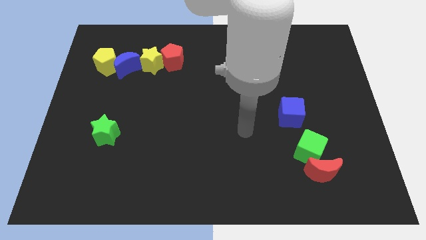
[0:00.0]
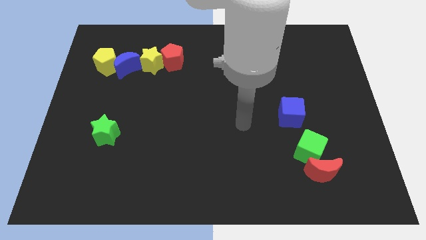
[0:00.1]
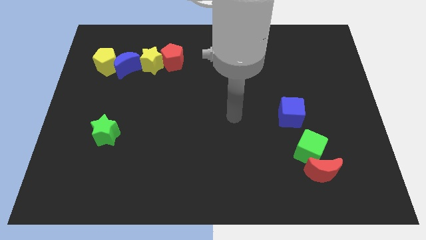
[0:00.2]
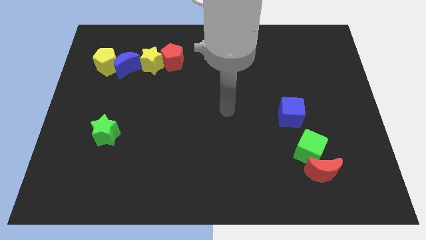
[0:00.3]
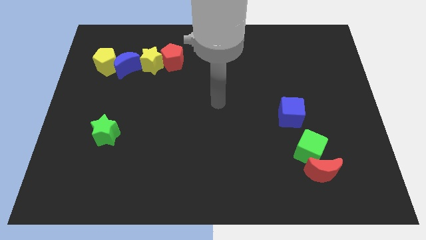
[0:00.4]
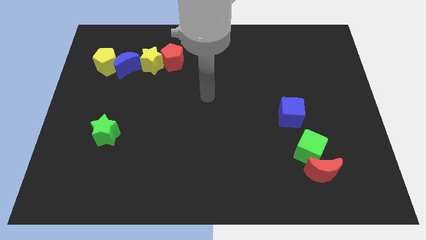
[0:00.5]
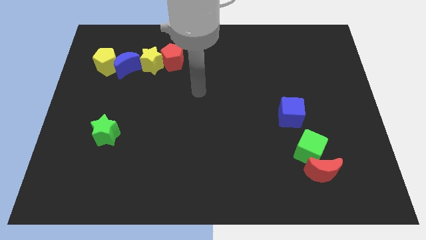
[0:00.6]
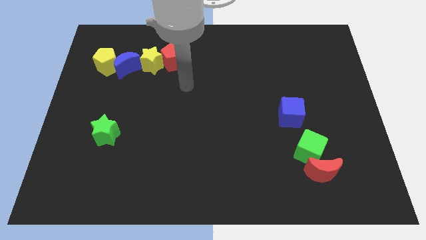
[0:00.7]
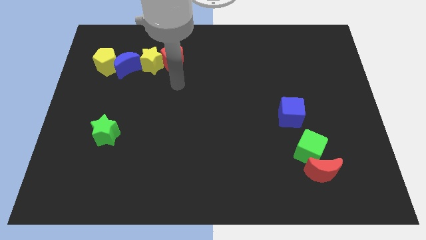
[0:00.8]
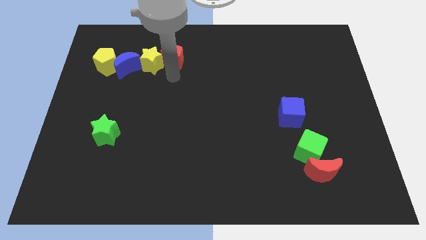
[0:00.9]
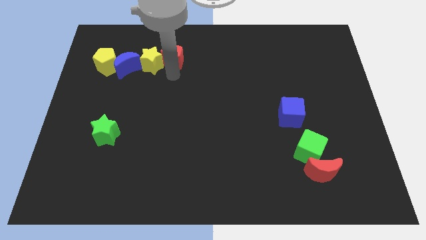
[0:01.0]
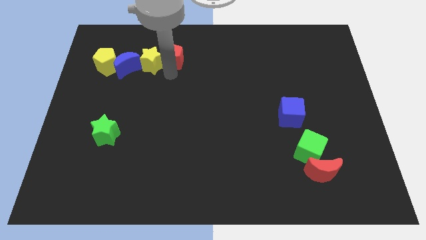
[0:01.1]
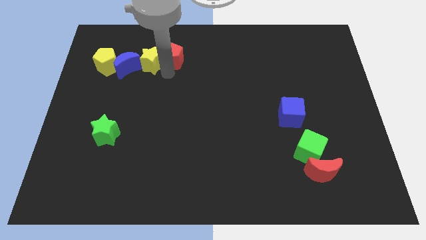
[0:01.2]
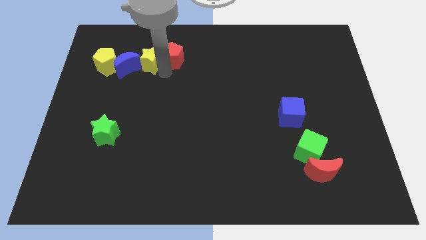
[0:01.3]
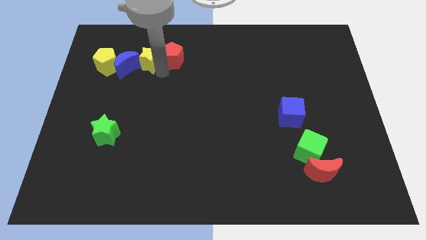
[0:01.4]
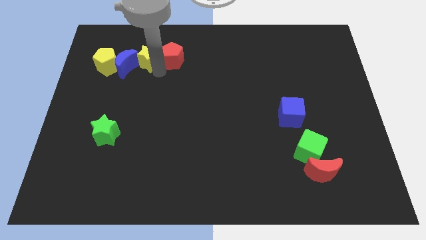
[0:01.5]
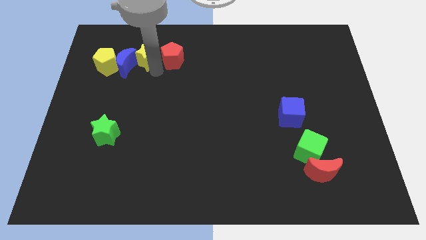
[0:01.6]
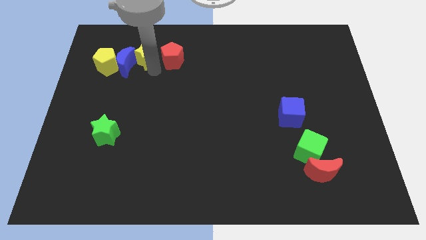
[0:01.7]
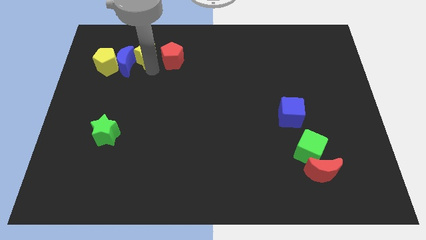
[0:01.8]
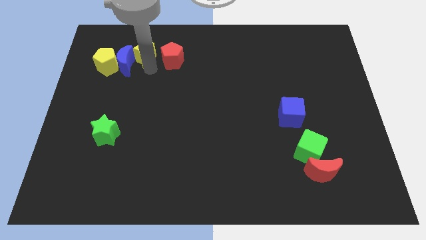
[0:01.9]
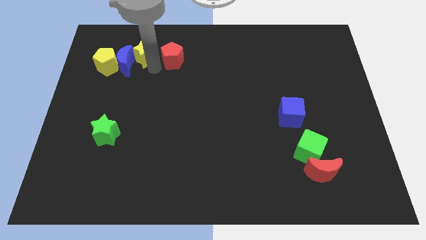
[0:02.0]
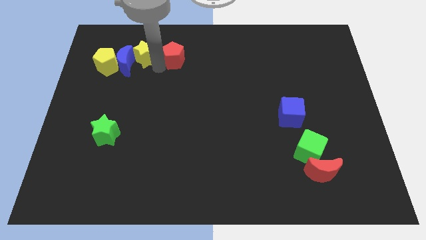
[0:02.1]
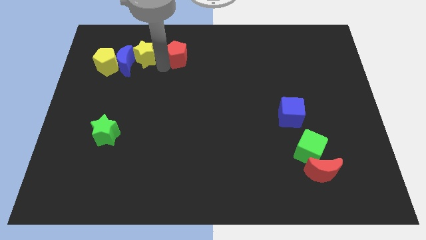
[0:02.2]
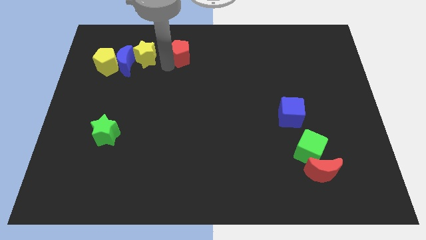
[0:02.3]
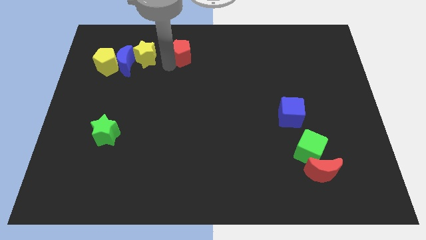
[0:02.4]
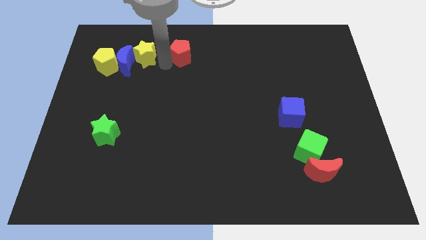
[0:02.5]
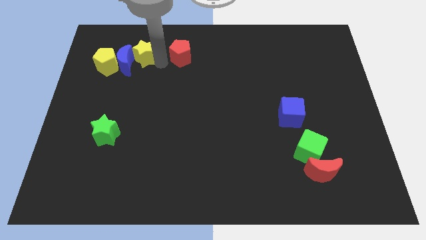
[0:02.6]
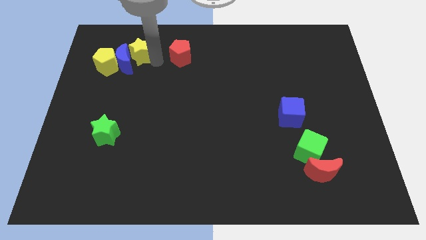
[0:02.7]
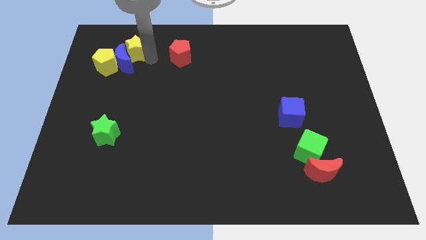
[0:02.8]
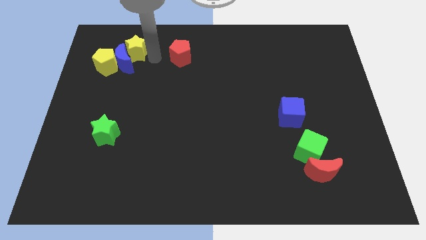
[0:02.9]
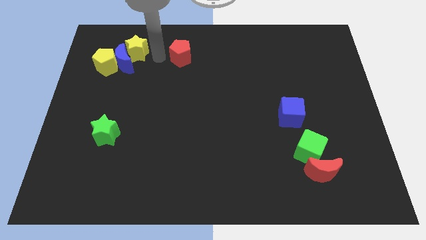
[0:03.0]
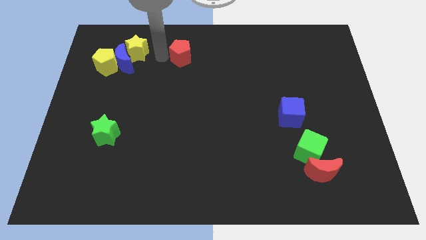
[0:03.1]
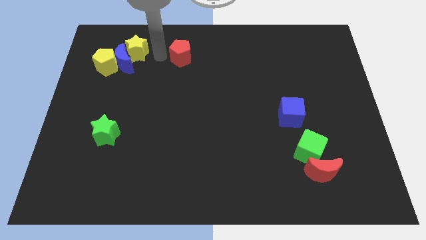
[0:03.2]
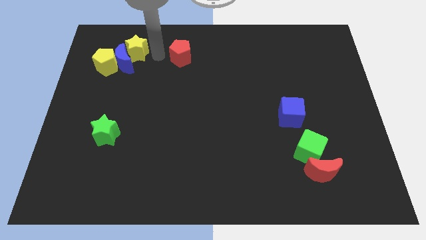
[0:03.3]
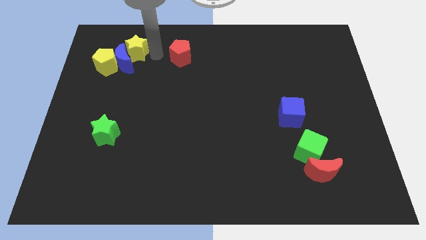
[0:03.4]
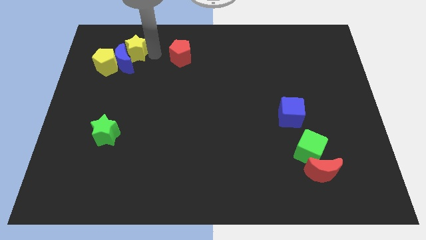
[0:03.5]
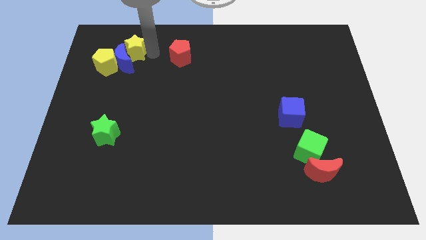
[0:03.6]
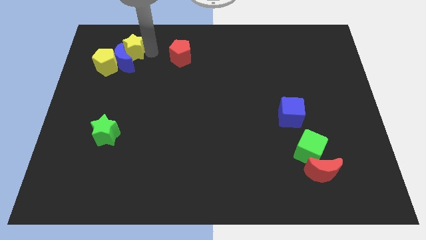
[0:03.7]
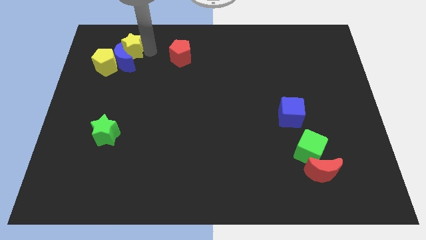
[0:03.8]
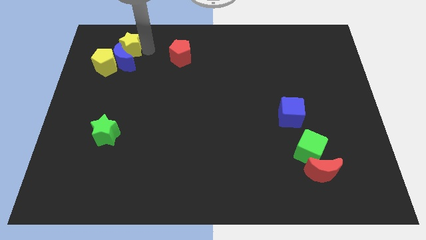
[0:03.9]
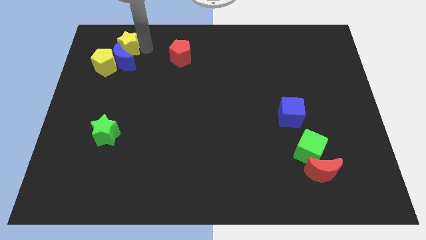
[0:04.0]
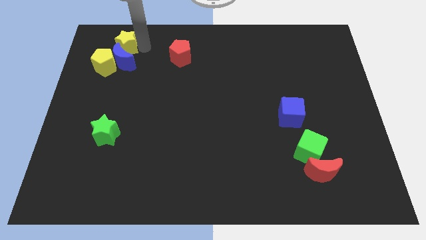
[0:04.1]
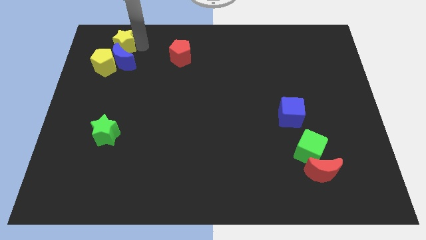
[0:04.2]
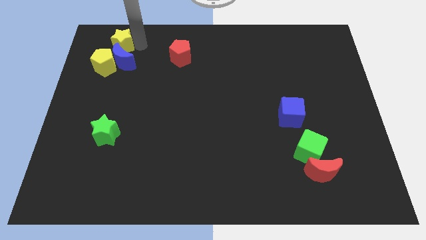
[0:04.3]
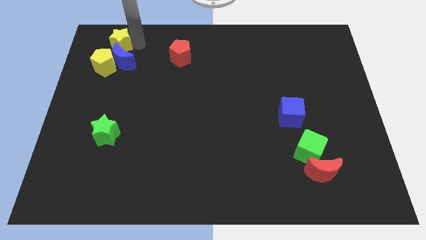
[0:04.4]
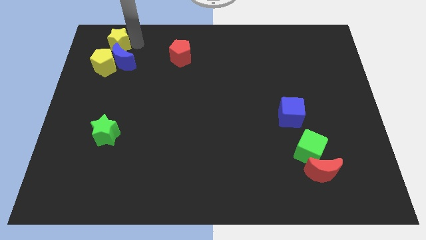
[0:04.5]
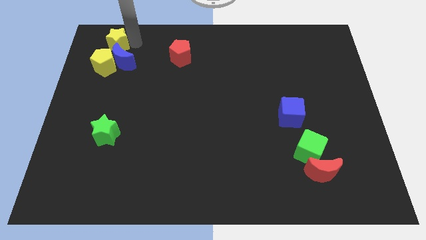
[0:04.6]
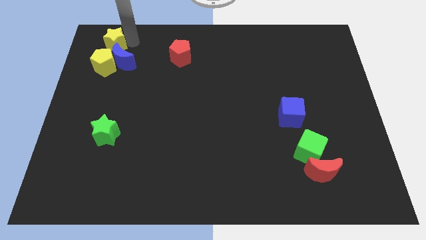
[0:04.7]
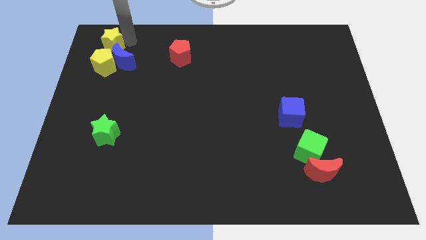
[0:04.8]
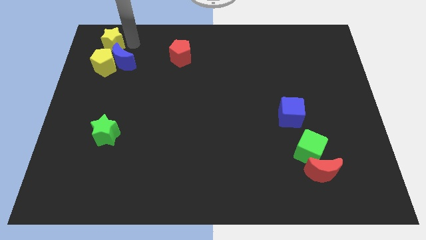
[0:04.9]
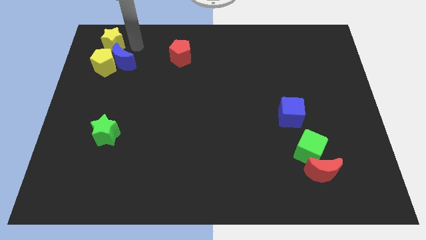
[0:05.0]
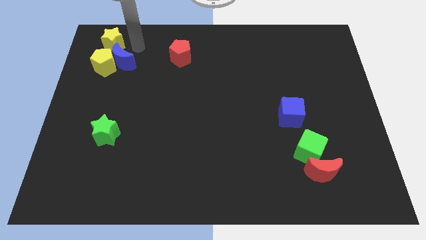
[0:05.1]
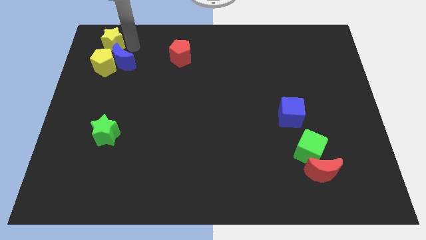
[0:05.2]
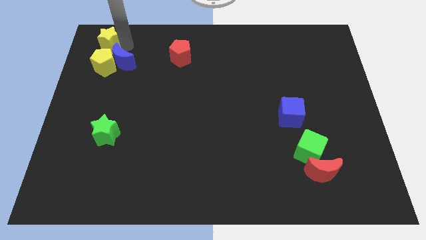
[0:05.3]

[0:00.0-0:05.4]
move the yellow star to the top left of the board

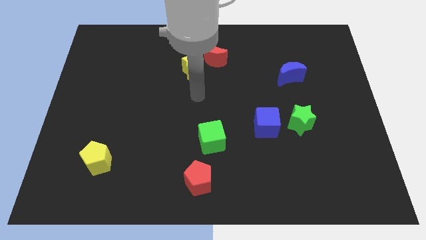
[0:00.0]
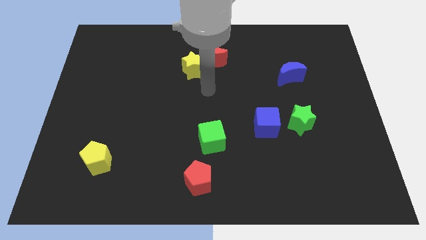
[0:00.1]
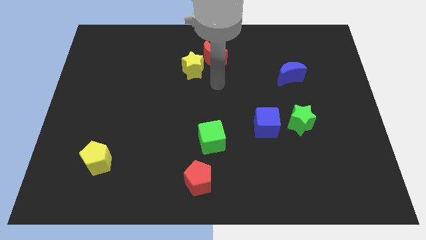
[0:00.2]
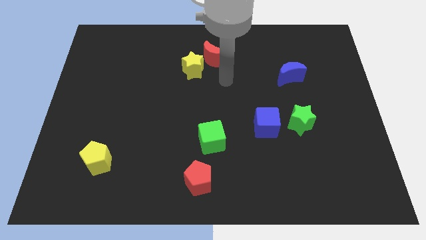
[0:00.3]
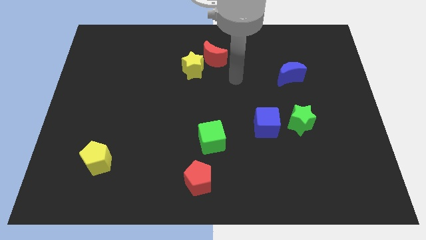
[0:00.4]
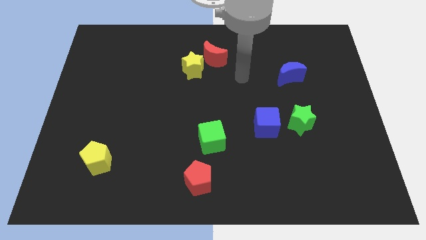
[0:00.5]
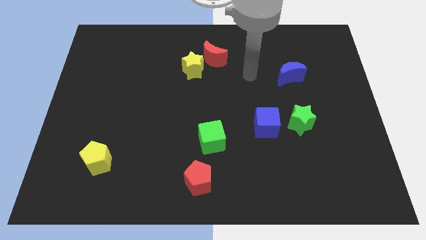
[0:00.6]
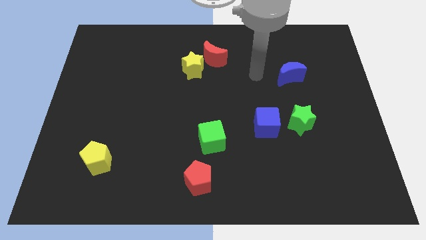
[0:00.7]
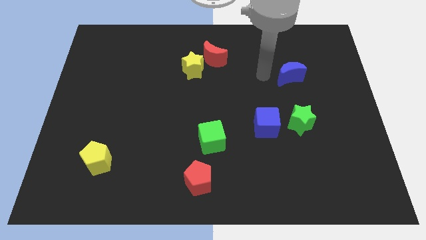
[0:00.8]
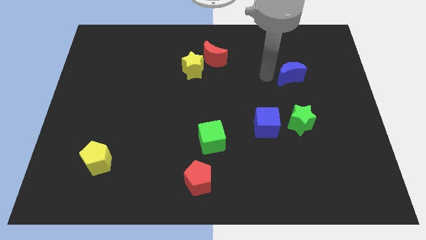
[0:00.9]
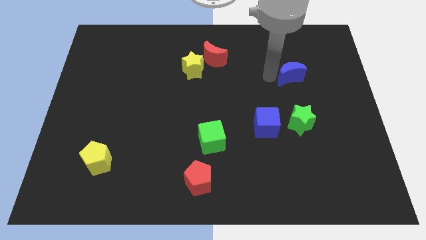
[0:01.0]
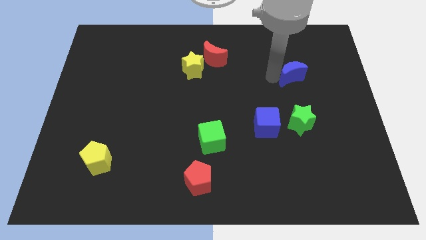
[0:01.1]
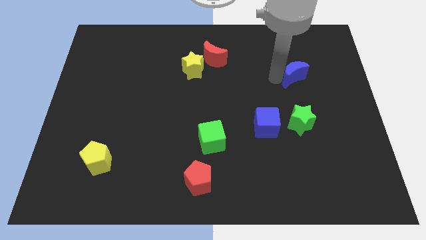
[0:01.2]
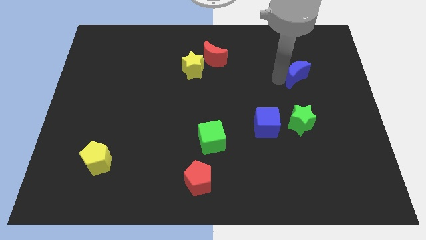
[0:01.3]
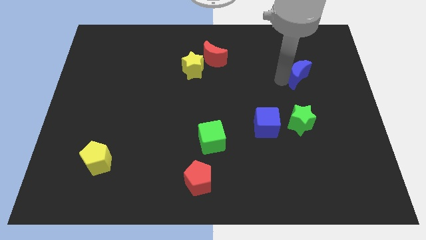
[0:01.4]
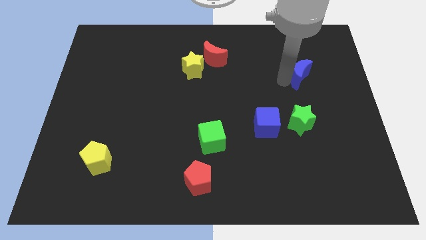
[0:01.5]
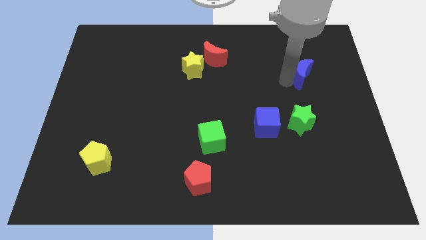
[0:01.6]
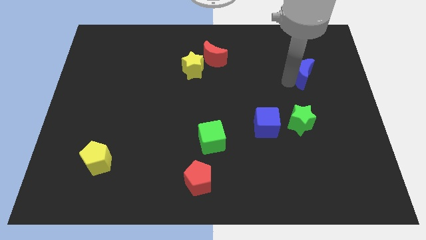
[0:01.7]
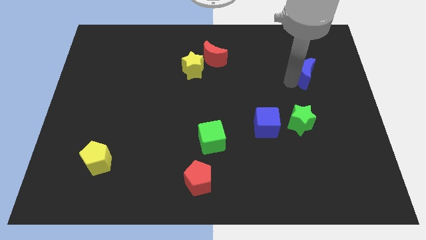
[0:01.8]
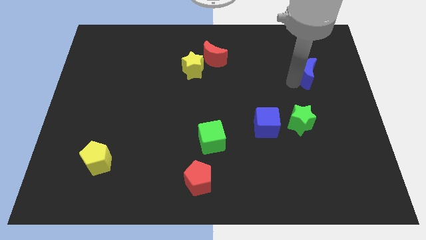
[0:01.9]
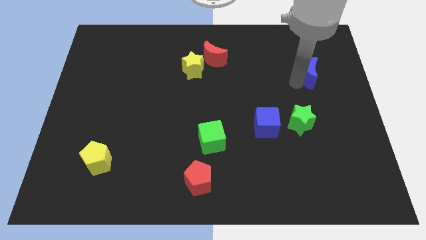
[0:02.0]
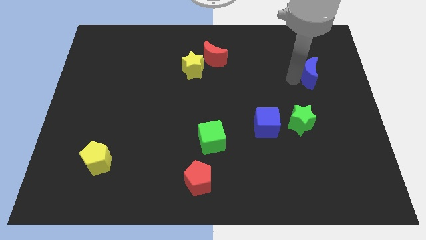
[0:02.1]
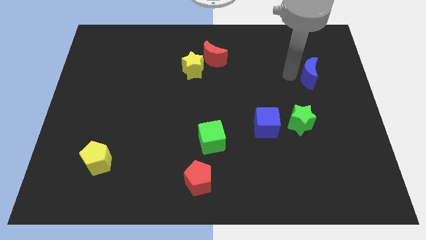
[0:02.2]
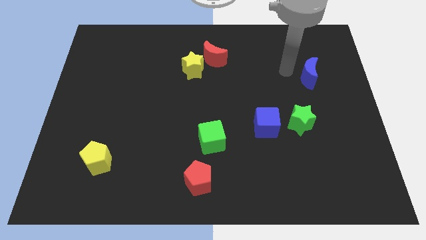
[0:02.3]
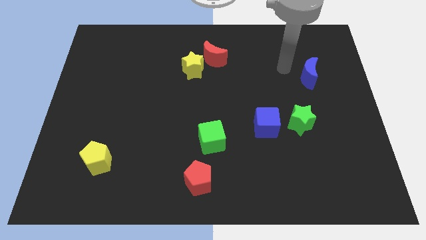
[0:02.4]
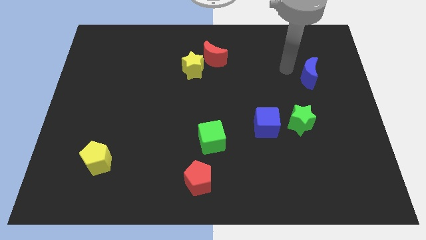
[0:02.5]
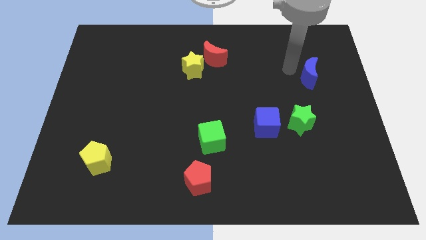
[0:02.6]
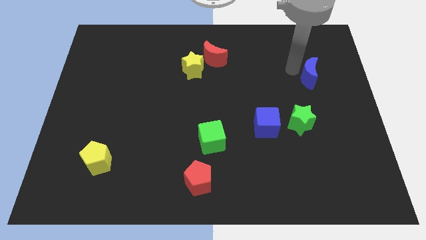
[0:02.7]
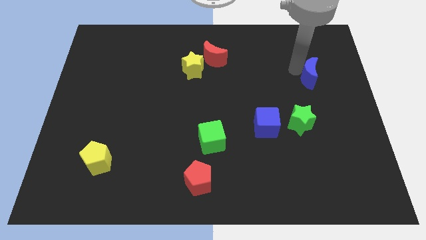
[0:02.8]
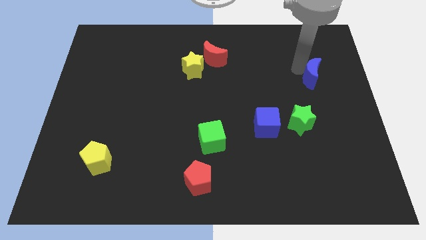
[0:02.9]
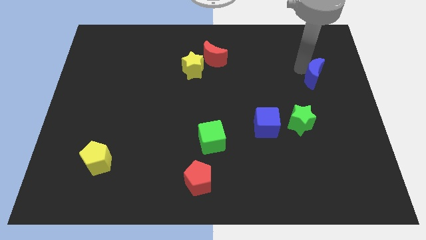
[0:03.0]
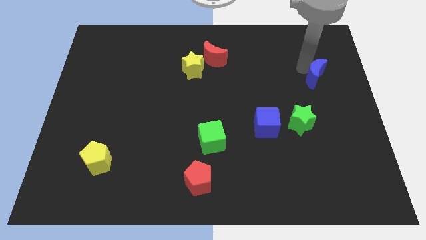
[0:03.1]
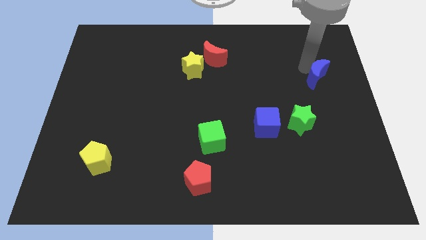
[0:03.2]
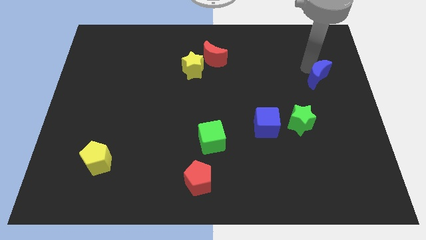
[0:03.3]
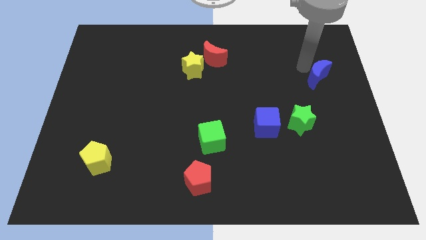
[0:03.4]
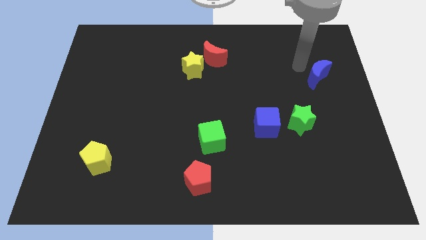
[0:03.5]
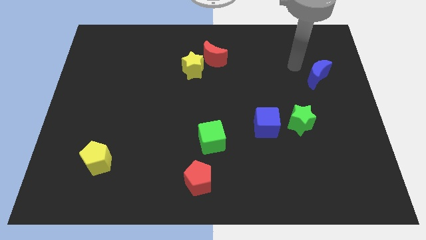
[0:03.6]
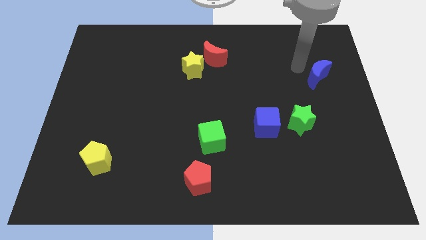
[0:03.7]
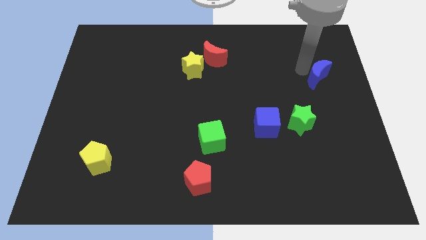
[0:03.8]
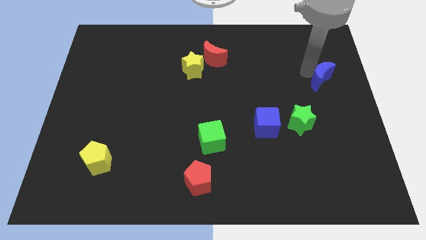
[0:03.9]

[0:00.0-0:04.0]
push the blue moon to the center right
